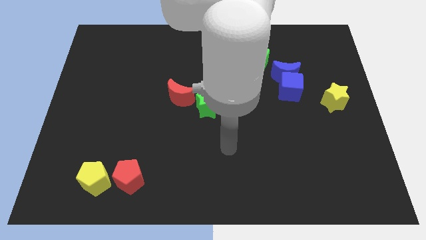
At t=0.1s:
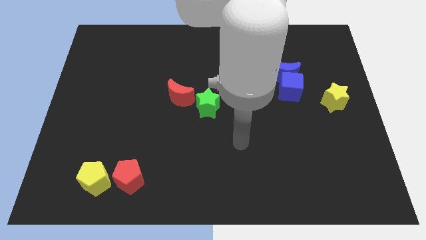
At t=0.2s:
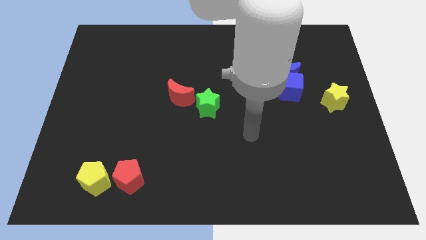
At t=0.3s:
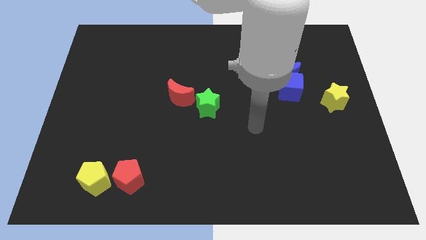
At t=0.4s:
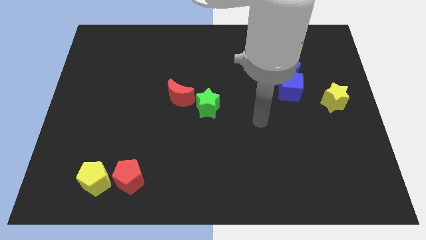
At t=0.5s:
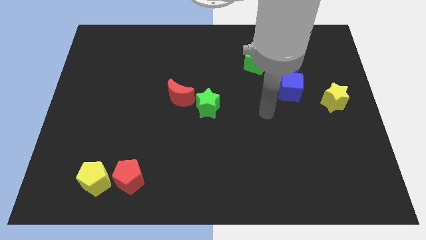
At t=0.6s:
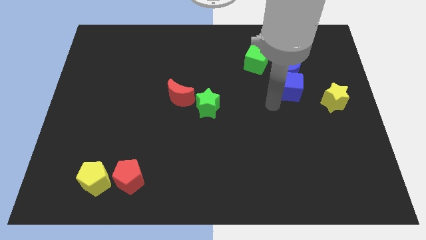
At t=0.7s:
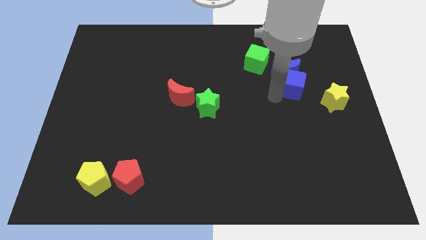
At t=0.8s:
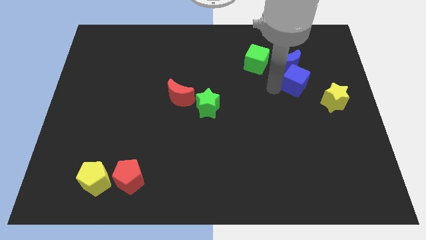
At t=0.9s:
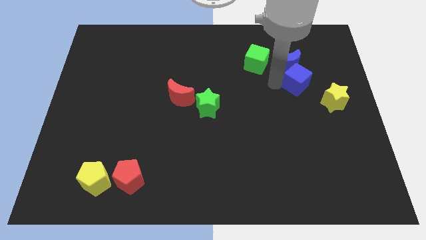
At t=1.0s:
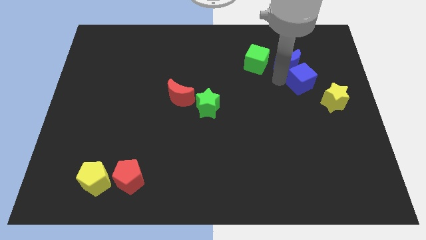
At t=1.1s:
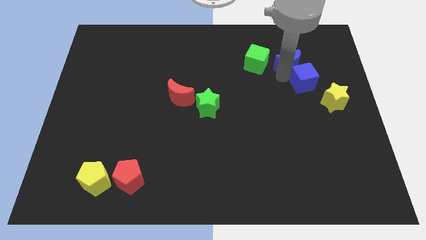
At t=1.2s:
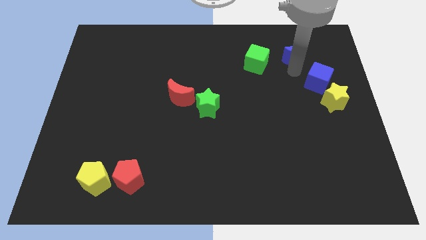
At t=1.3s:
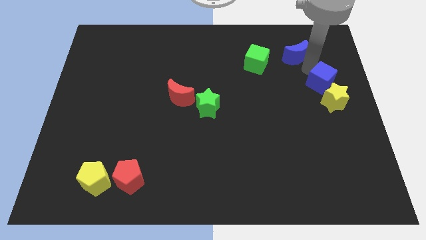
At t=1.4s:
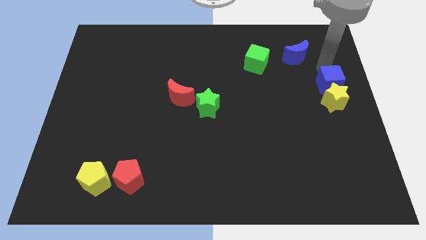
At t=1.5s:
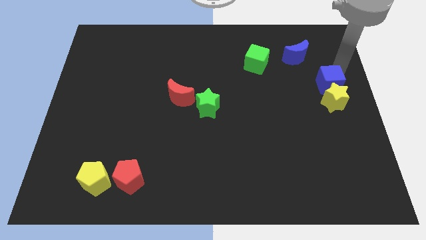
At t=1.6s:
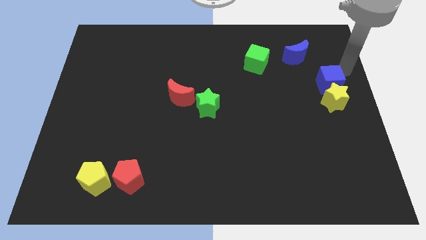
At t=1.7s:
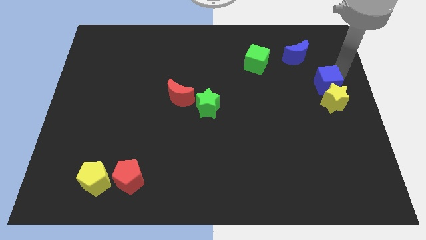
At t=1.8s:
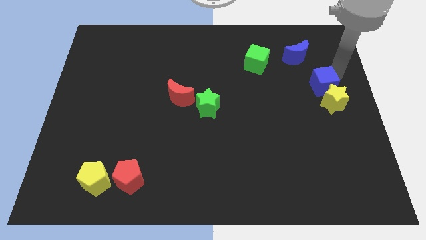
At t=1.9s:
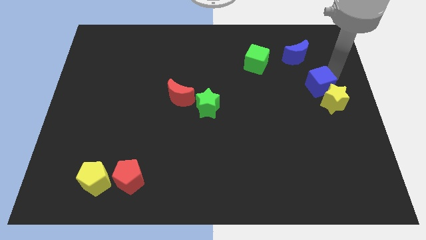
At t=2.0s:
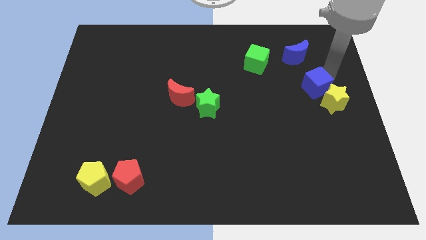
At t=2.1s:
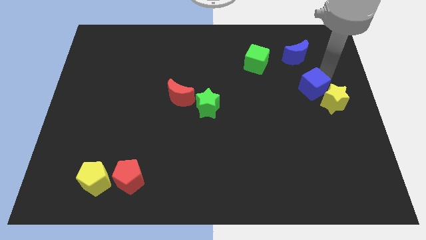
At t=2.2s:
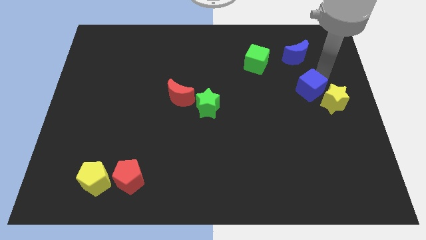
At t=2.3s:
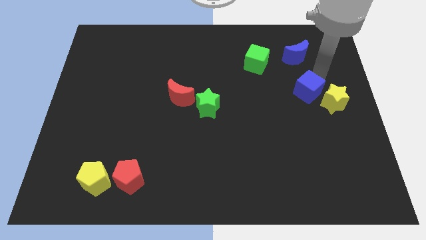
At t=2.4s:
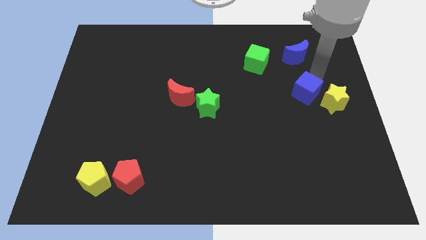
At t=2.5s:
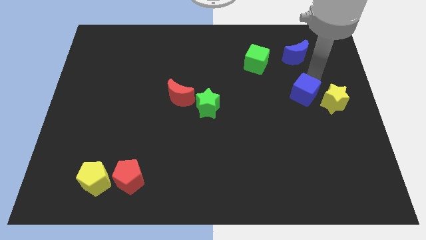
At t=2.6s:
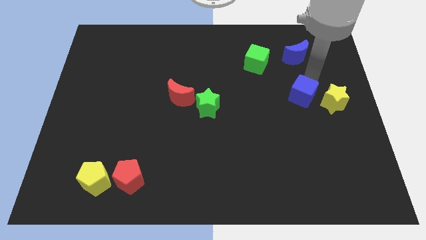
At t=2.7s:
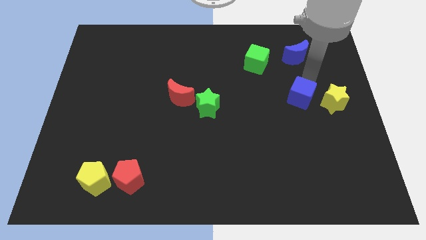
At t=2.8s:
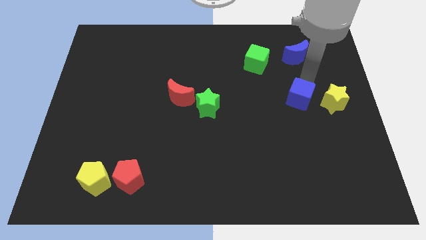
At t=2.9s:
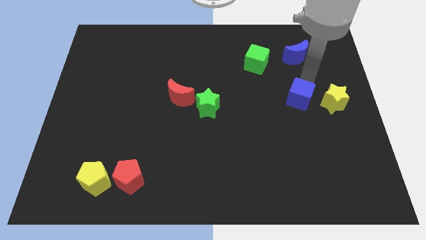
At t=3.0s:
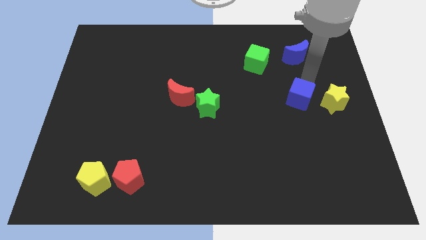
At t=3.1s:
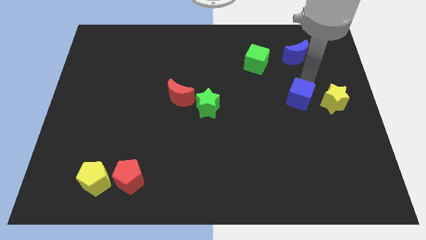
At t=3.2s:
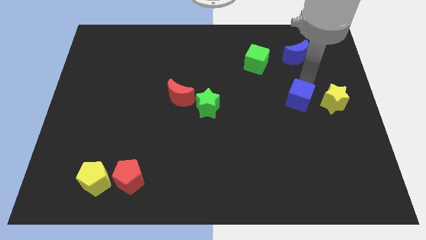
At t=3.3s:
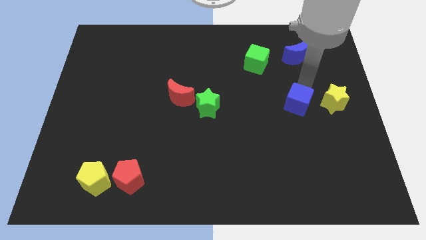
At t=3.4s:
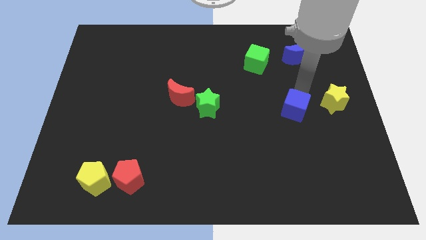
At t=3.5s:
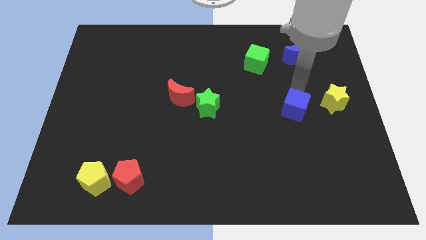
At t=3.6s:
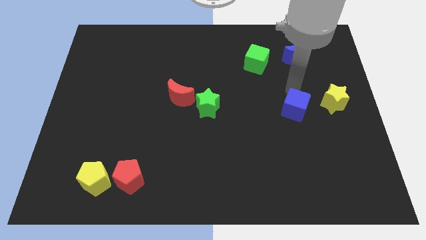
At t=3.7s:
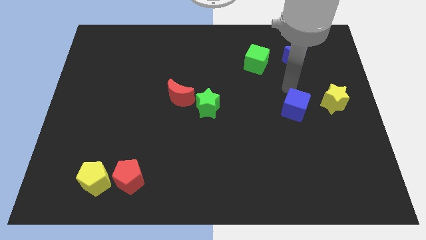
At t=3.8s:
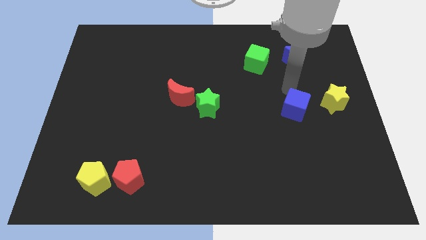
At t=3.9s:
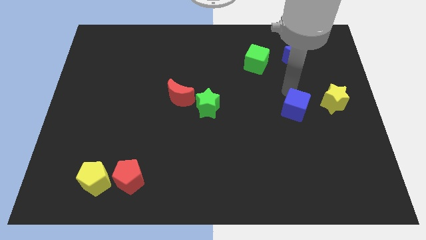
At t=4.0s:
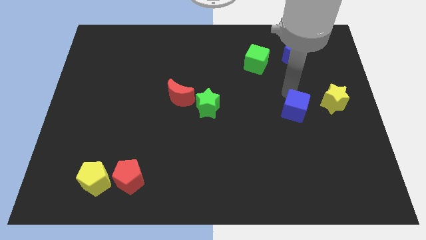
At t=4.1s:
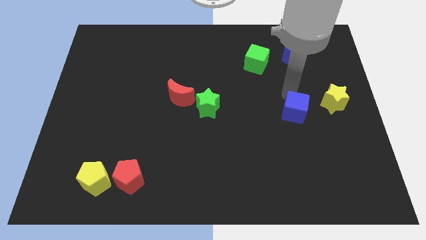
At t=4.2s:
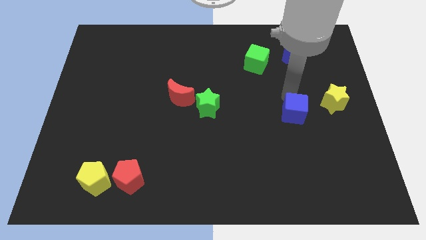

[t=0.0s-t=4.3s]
move the blue cube slightly down

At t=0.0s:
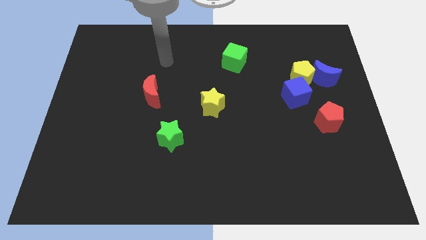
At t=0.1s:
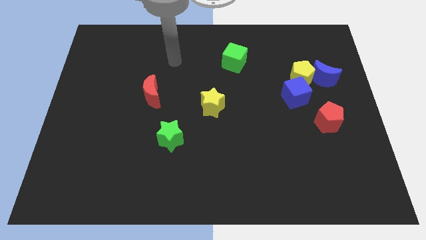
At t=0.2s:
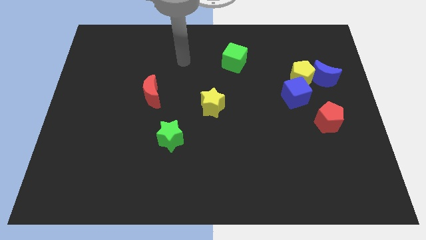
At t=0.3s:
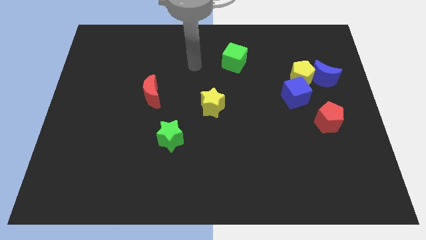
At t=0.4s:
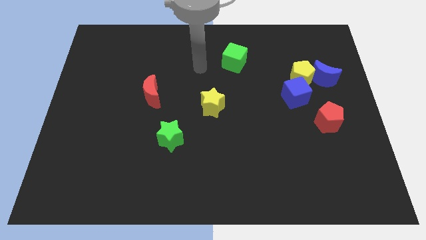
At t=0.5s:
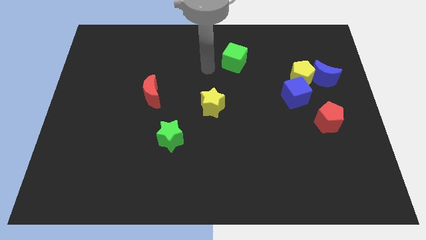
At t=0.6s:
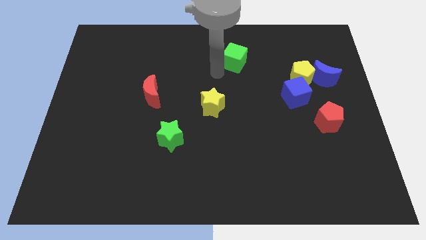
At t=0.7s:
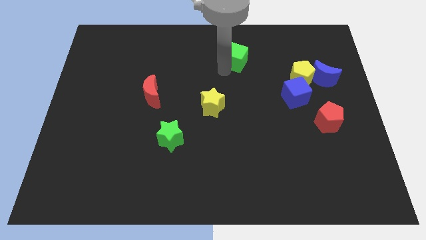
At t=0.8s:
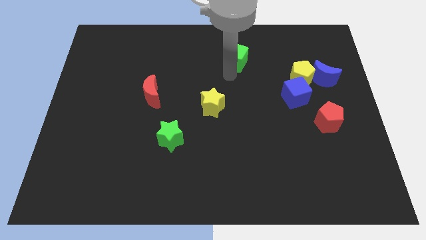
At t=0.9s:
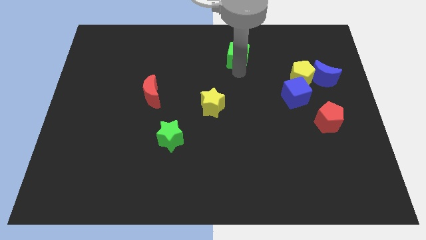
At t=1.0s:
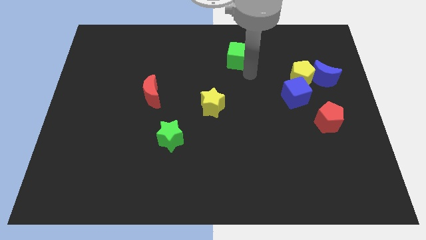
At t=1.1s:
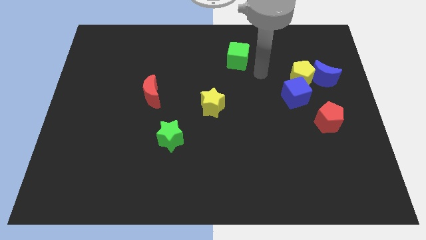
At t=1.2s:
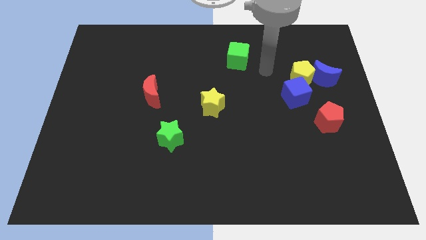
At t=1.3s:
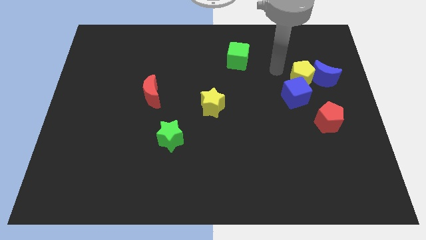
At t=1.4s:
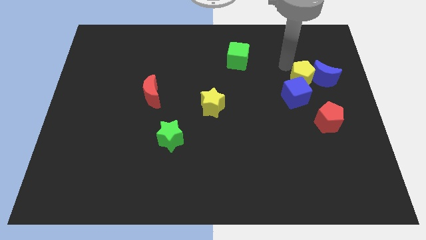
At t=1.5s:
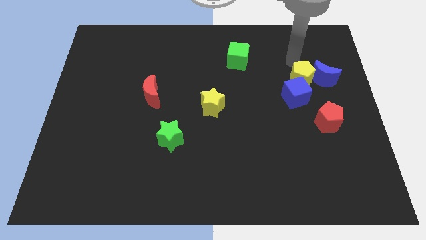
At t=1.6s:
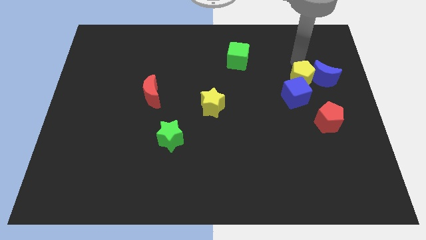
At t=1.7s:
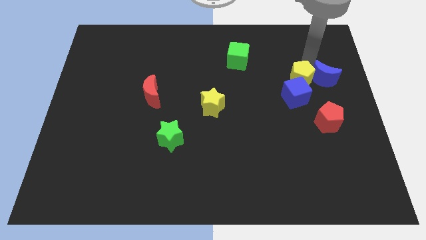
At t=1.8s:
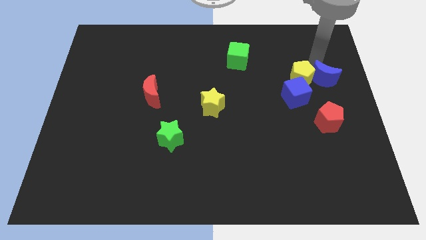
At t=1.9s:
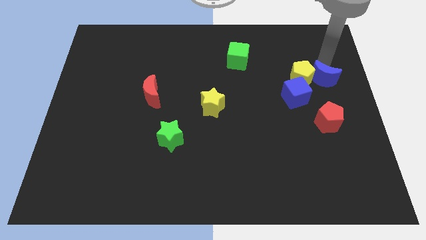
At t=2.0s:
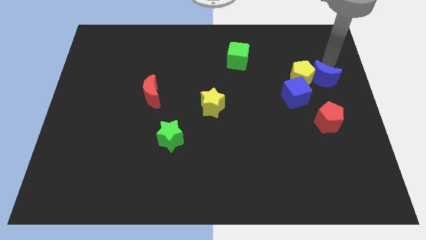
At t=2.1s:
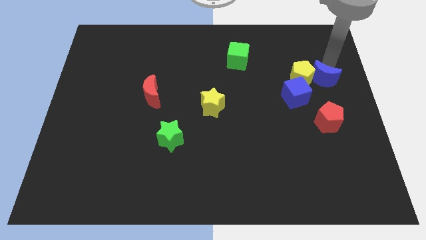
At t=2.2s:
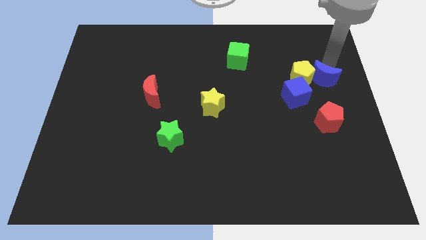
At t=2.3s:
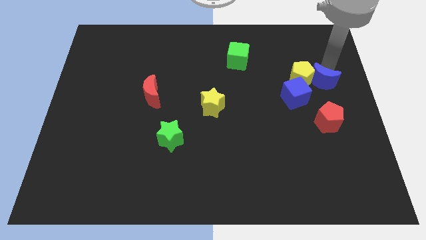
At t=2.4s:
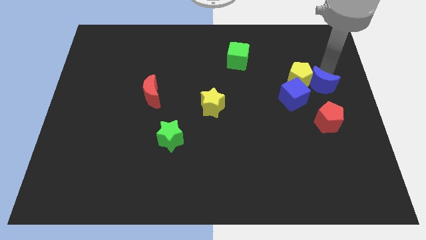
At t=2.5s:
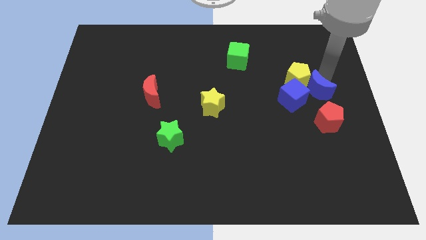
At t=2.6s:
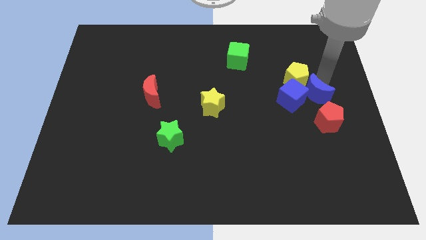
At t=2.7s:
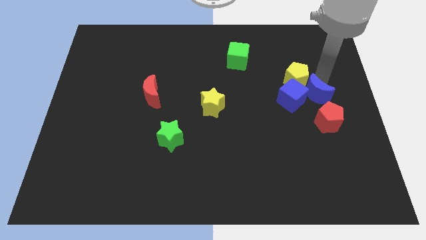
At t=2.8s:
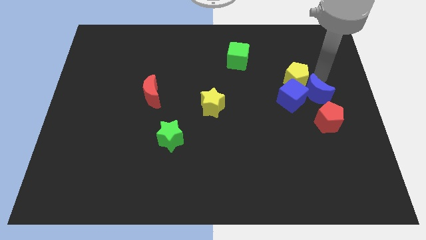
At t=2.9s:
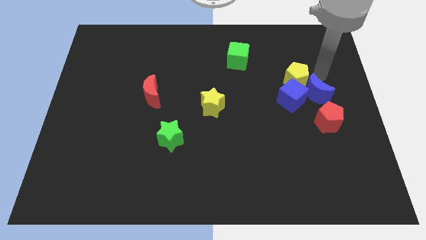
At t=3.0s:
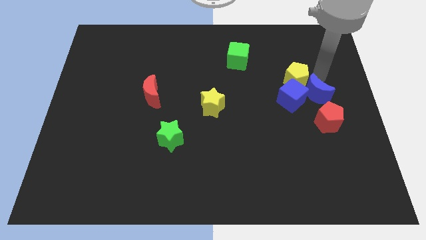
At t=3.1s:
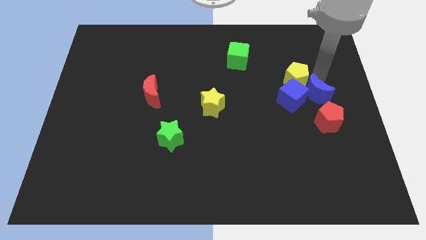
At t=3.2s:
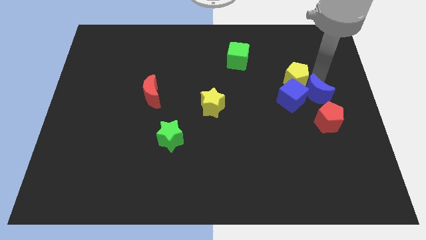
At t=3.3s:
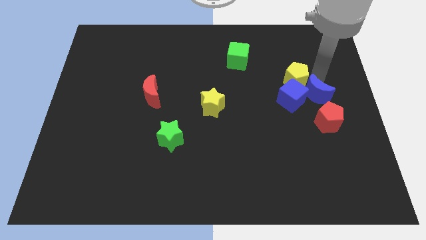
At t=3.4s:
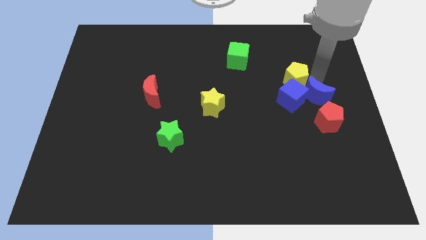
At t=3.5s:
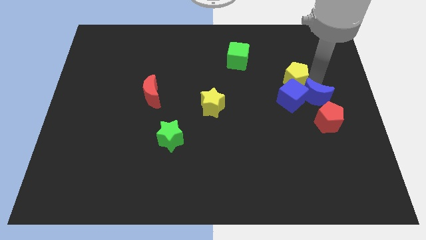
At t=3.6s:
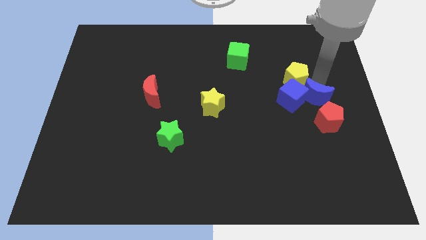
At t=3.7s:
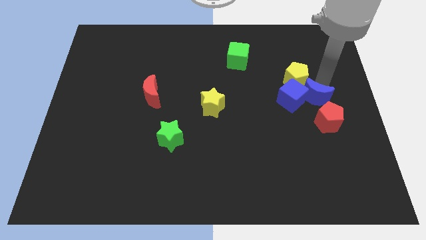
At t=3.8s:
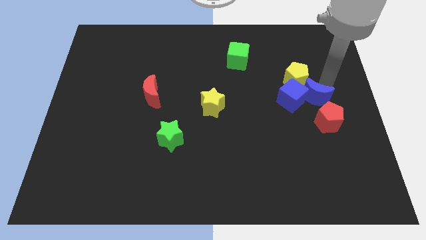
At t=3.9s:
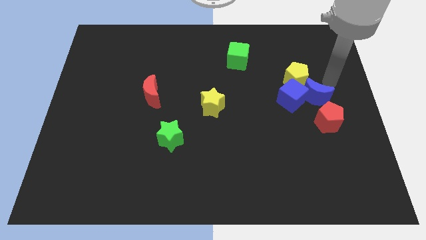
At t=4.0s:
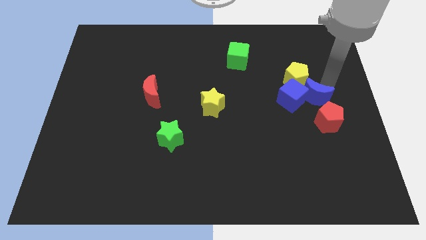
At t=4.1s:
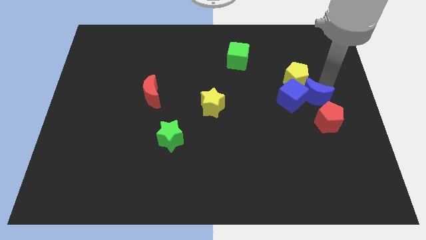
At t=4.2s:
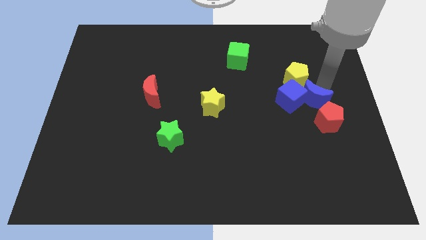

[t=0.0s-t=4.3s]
push the blue moon a little down and then to the left
